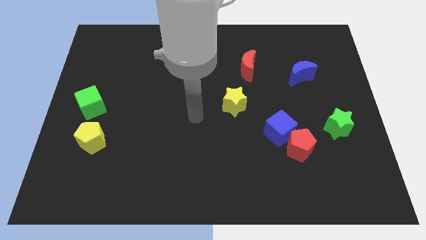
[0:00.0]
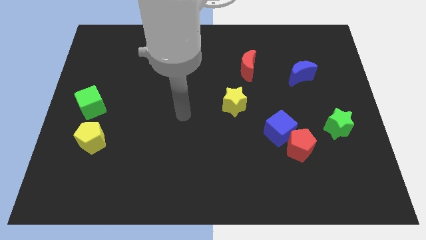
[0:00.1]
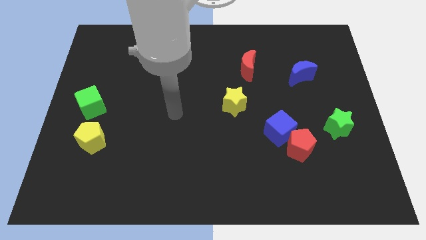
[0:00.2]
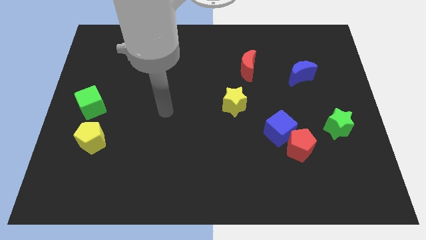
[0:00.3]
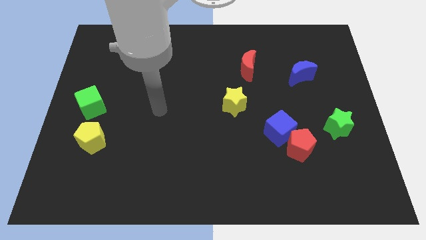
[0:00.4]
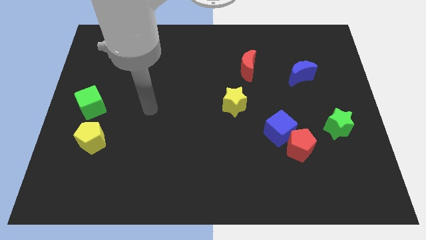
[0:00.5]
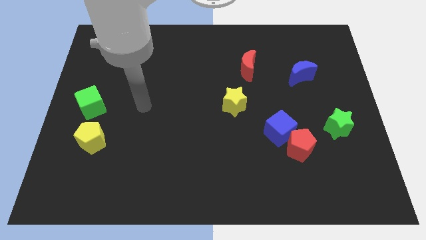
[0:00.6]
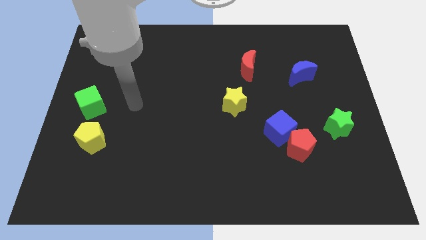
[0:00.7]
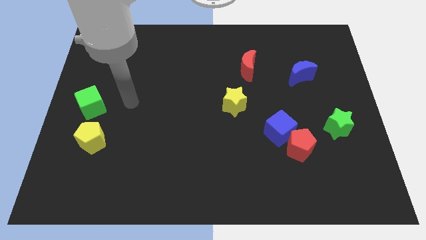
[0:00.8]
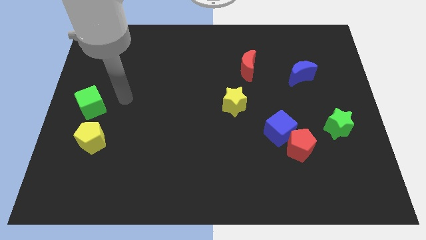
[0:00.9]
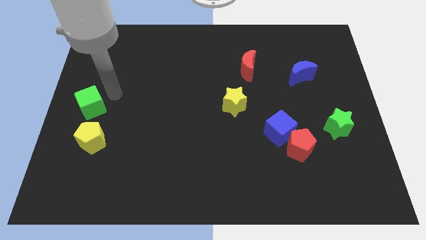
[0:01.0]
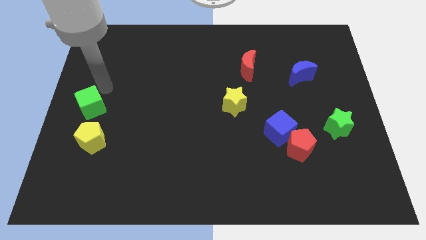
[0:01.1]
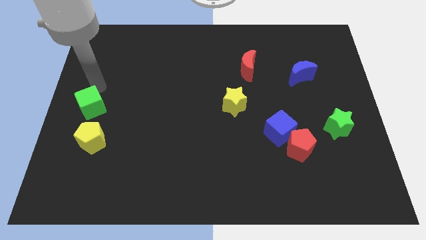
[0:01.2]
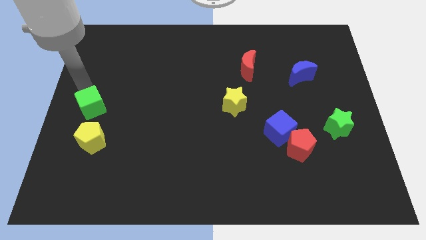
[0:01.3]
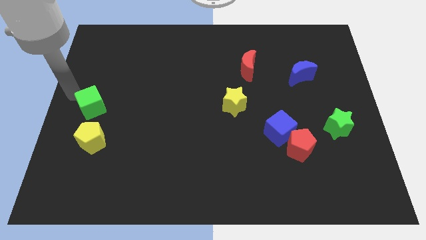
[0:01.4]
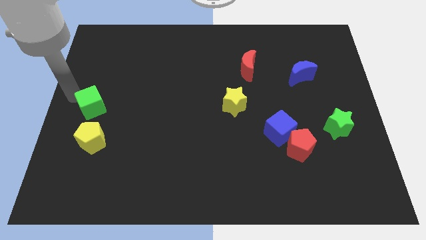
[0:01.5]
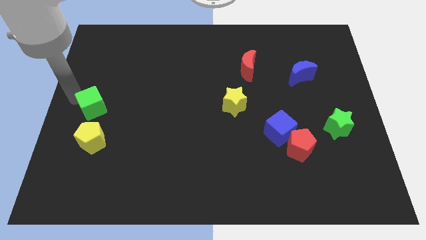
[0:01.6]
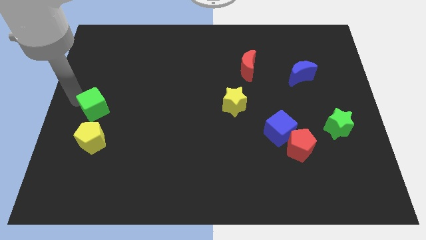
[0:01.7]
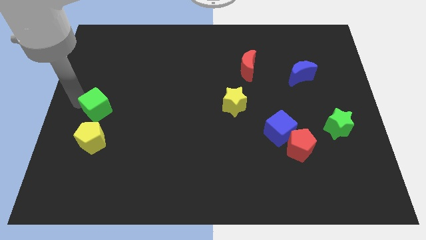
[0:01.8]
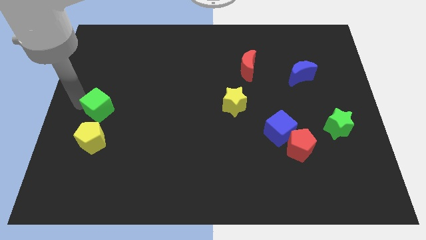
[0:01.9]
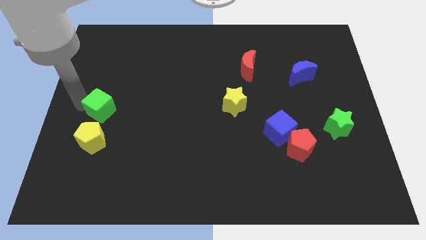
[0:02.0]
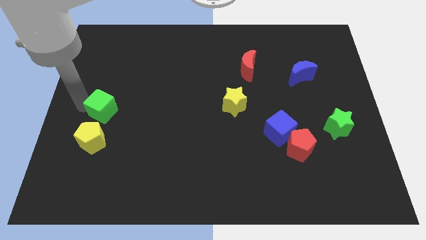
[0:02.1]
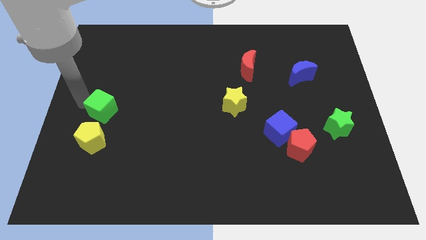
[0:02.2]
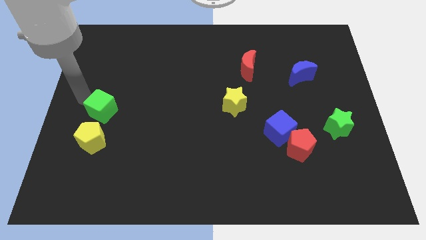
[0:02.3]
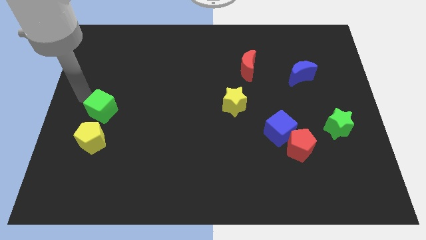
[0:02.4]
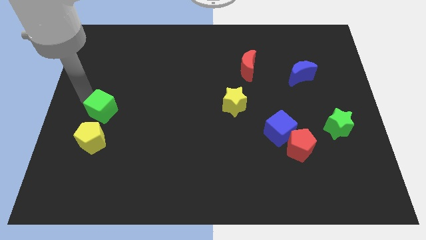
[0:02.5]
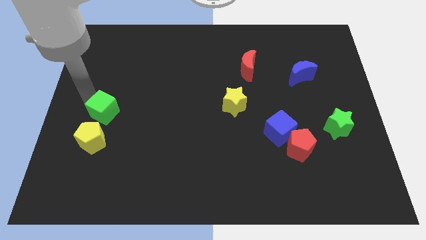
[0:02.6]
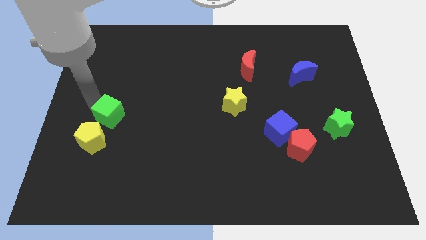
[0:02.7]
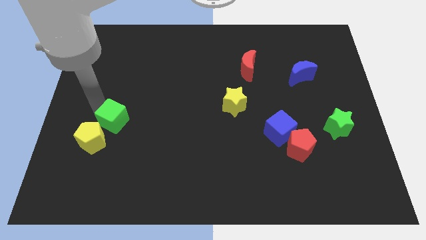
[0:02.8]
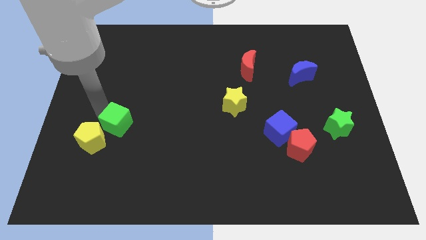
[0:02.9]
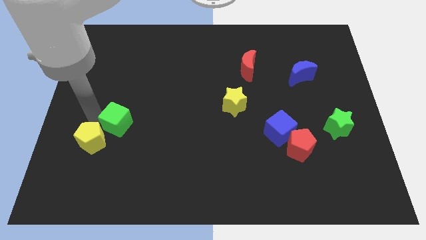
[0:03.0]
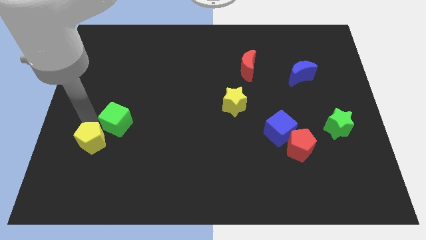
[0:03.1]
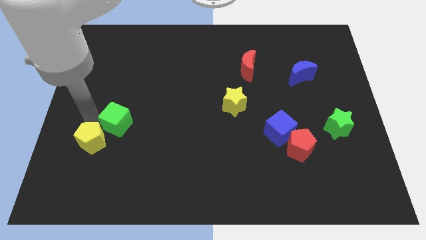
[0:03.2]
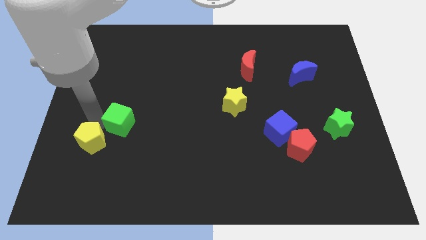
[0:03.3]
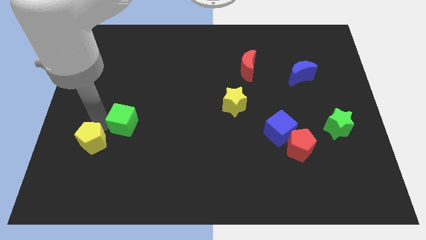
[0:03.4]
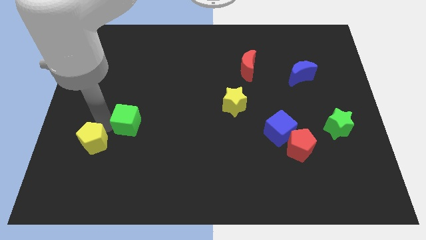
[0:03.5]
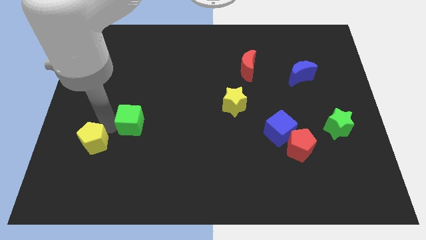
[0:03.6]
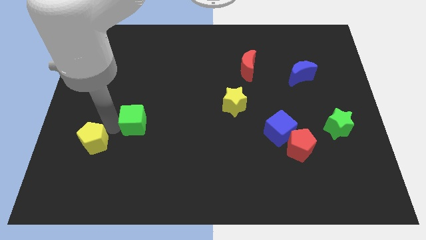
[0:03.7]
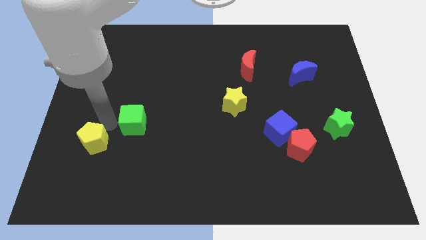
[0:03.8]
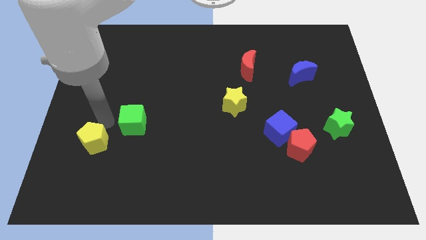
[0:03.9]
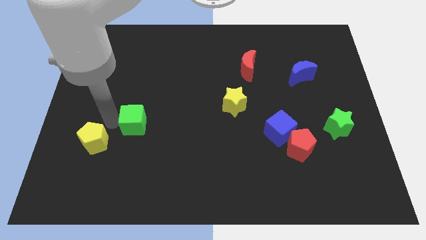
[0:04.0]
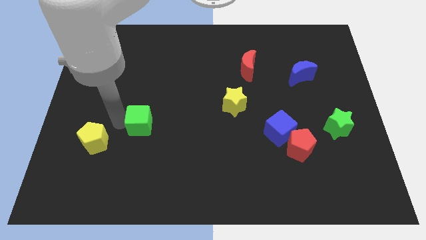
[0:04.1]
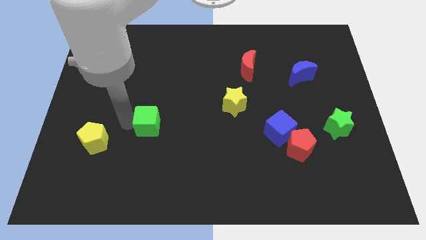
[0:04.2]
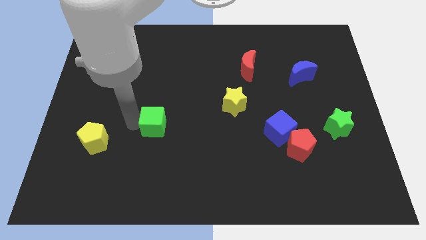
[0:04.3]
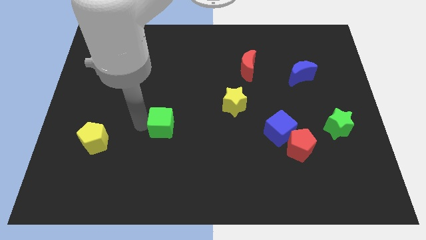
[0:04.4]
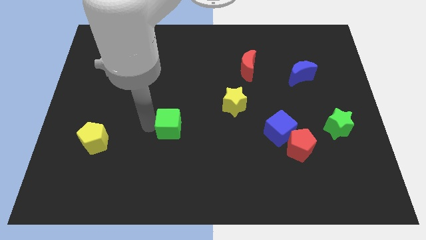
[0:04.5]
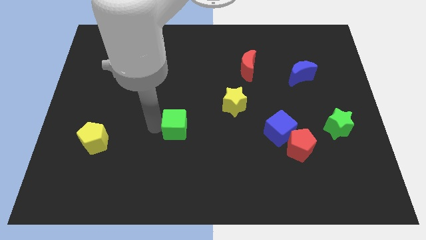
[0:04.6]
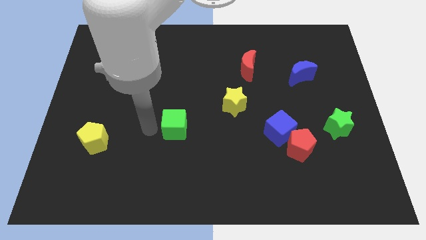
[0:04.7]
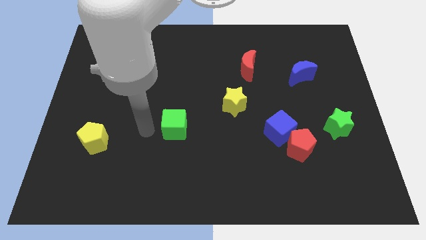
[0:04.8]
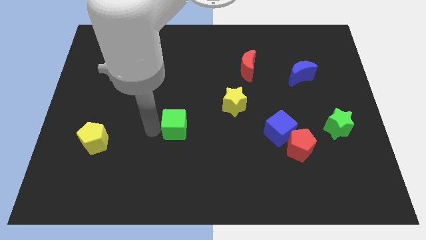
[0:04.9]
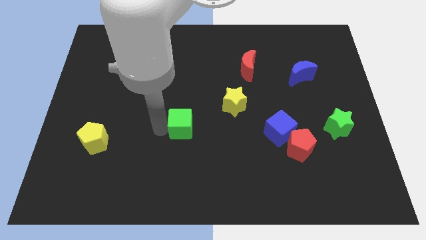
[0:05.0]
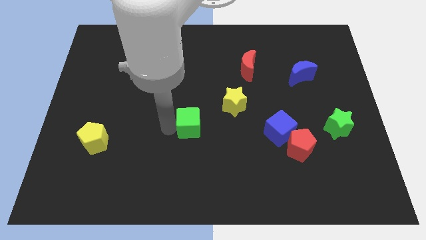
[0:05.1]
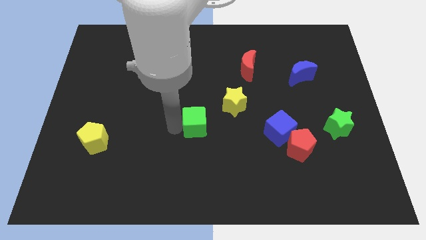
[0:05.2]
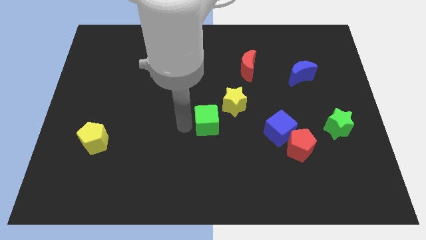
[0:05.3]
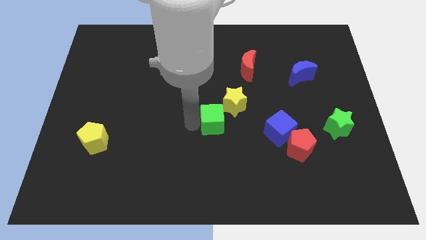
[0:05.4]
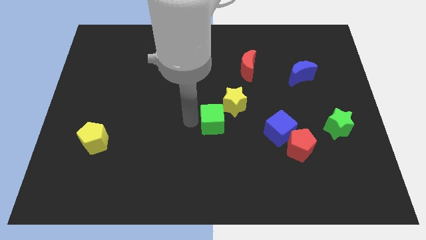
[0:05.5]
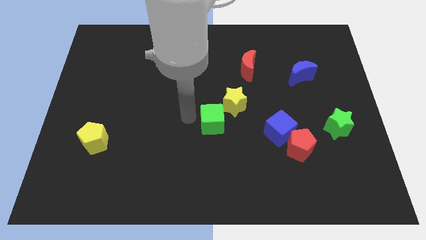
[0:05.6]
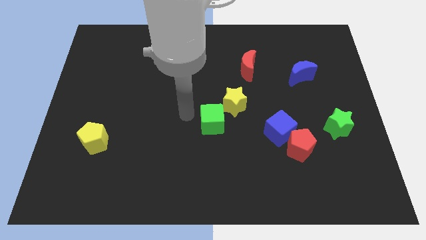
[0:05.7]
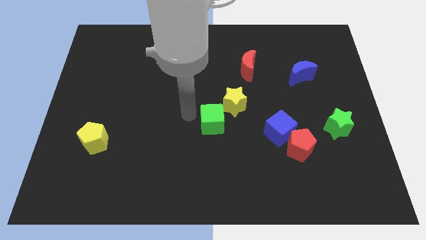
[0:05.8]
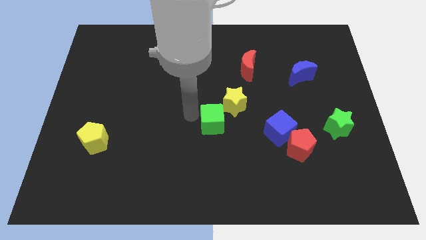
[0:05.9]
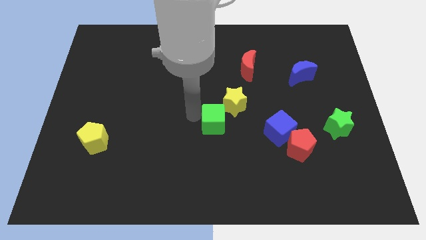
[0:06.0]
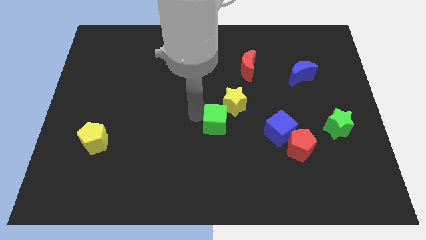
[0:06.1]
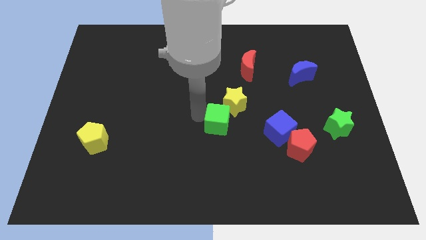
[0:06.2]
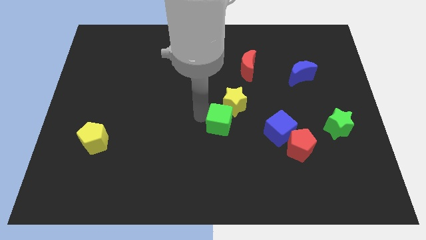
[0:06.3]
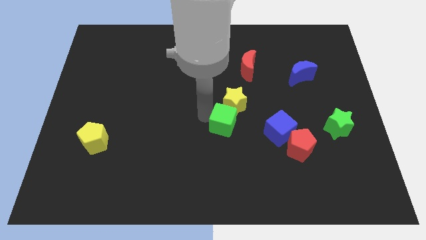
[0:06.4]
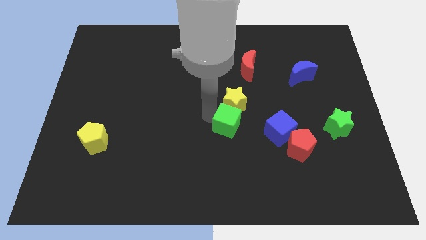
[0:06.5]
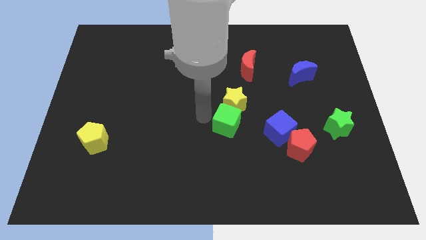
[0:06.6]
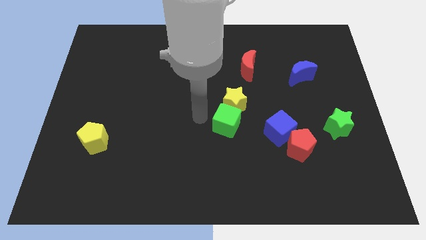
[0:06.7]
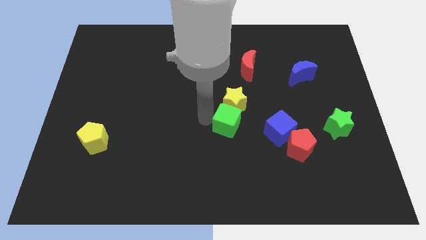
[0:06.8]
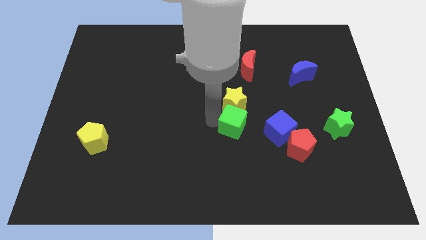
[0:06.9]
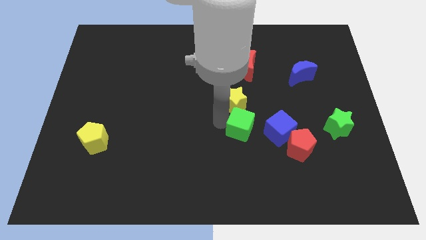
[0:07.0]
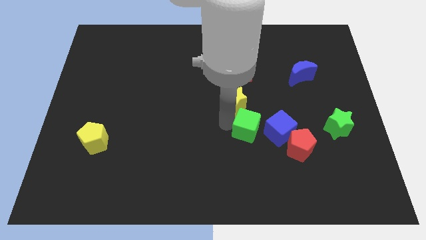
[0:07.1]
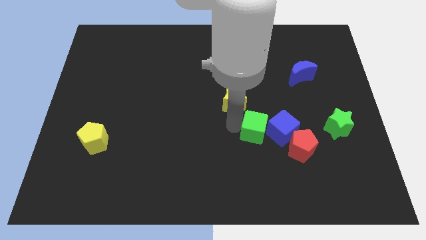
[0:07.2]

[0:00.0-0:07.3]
slide the green cube to the blue cube
